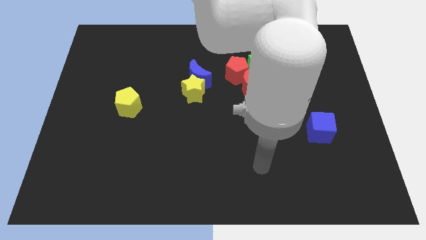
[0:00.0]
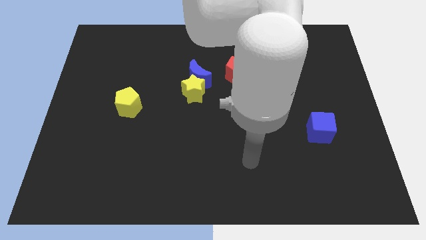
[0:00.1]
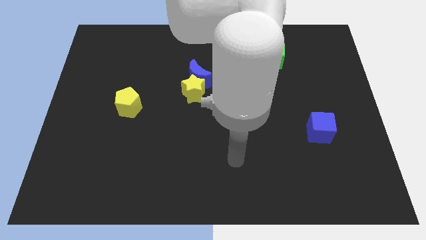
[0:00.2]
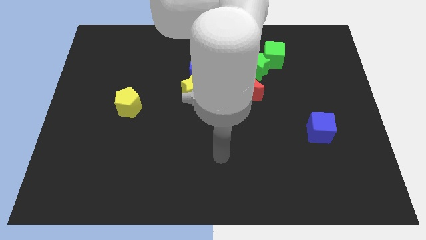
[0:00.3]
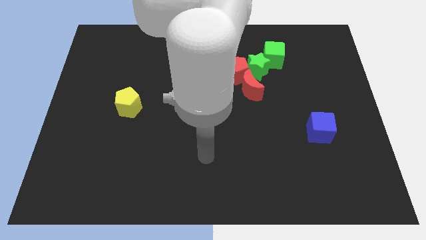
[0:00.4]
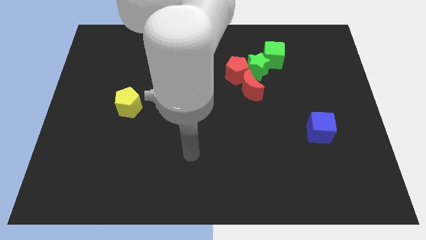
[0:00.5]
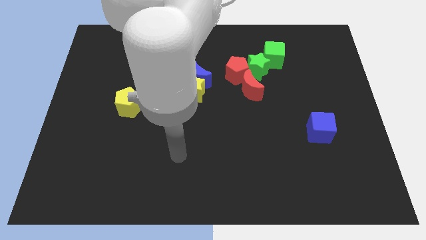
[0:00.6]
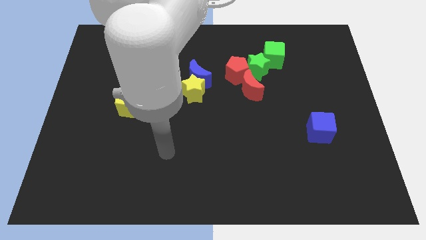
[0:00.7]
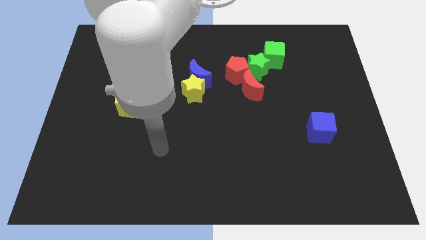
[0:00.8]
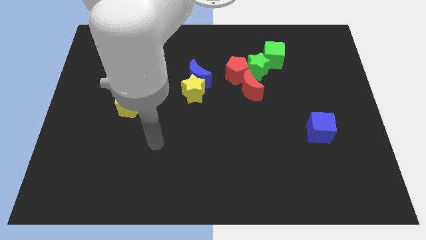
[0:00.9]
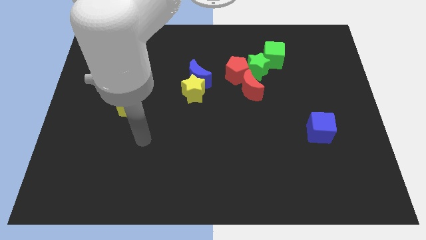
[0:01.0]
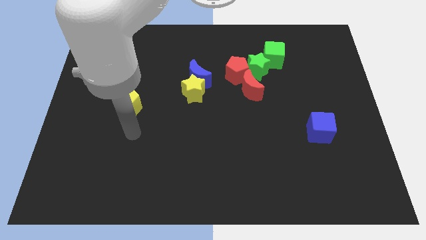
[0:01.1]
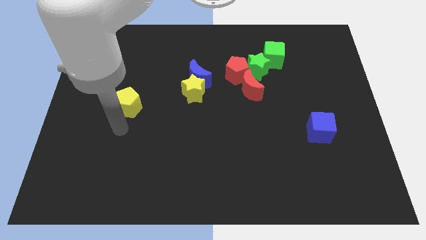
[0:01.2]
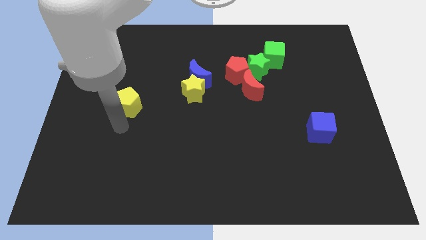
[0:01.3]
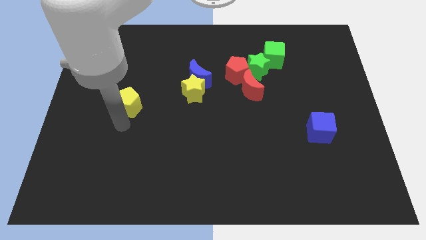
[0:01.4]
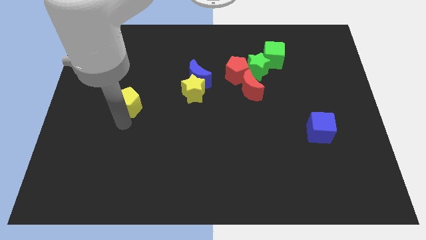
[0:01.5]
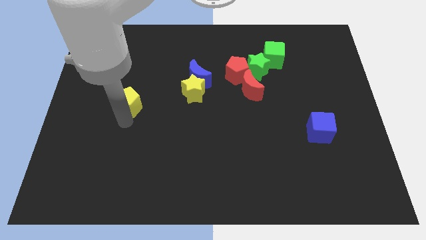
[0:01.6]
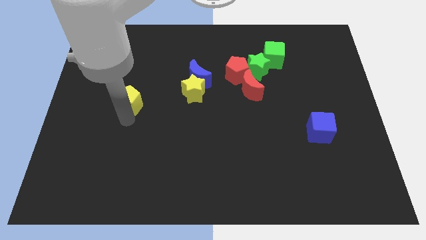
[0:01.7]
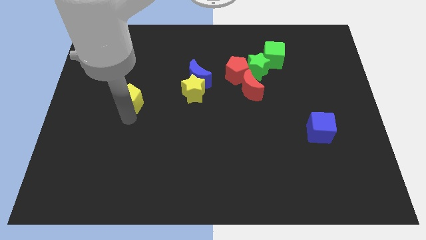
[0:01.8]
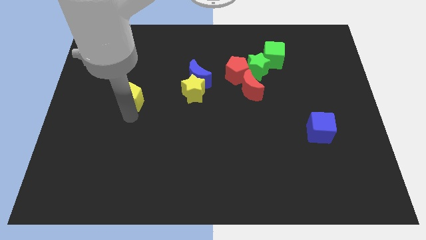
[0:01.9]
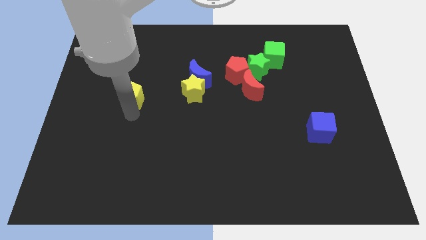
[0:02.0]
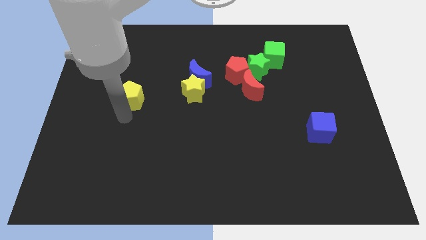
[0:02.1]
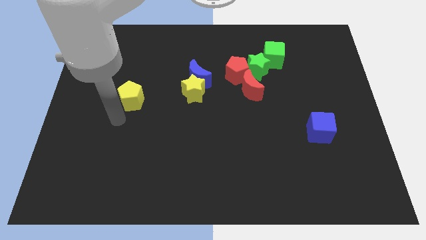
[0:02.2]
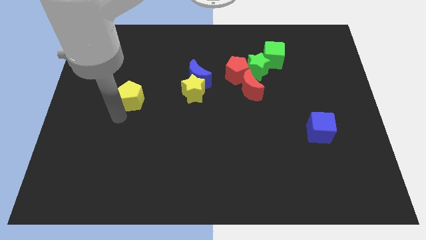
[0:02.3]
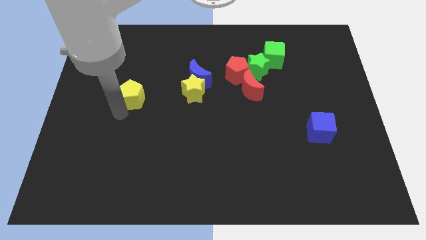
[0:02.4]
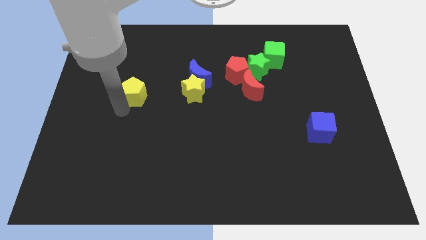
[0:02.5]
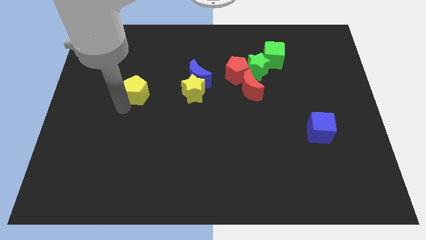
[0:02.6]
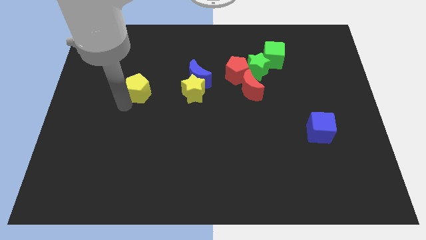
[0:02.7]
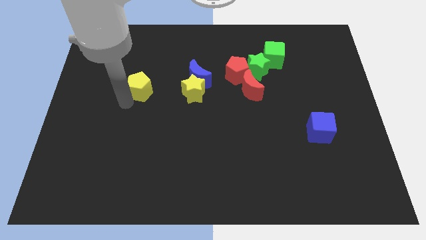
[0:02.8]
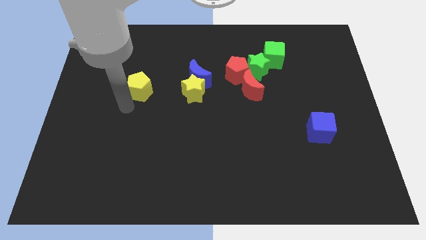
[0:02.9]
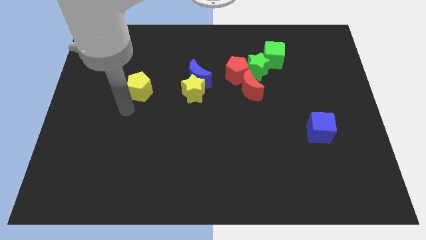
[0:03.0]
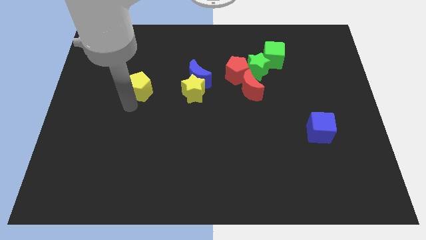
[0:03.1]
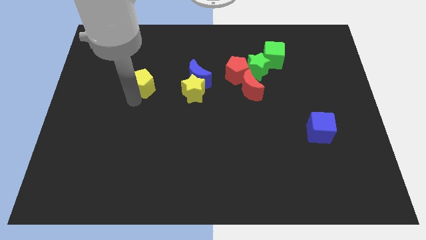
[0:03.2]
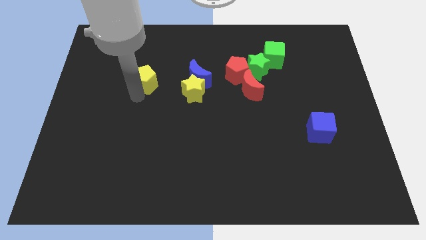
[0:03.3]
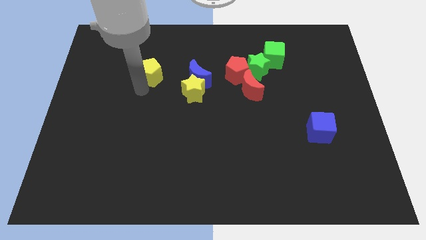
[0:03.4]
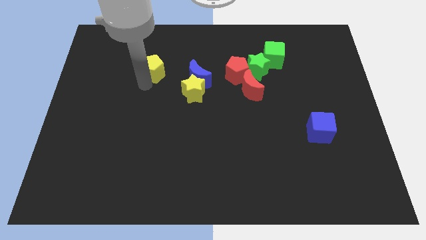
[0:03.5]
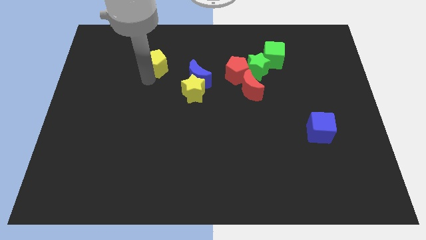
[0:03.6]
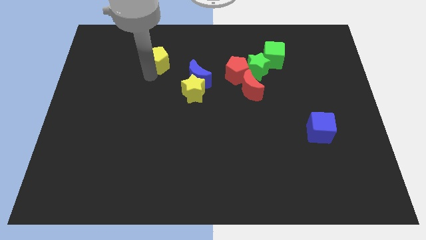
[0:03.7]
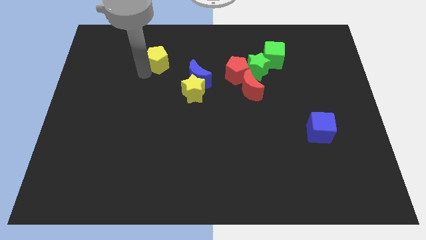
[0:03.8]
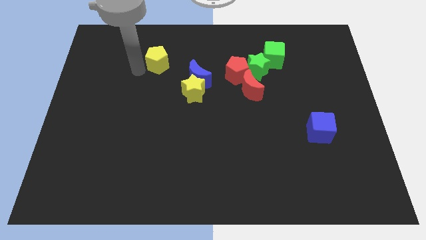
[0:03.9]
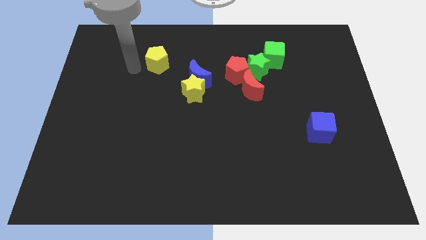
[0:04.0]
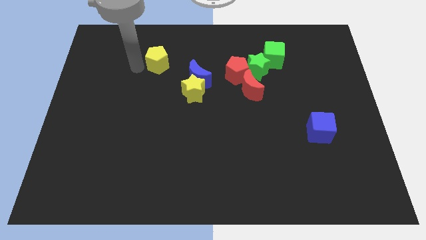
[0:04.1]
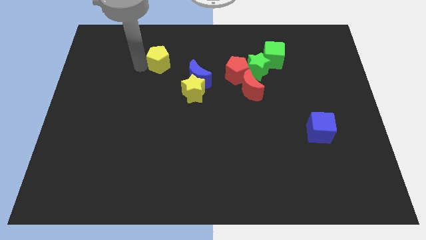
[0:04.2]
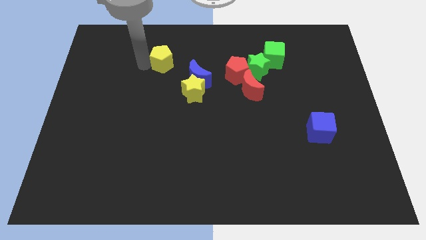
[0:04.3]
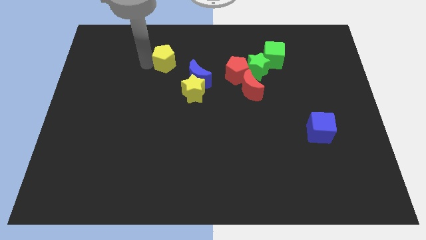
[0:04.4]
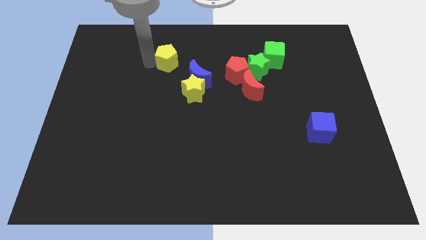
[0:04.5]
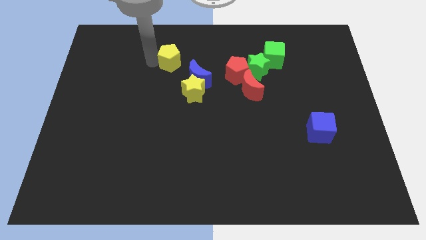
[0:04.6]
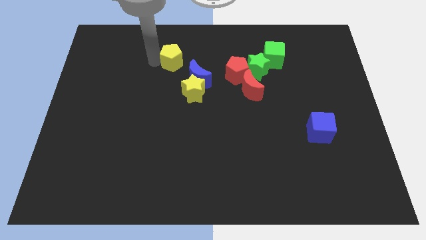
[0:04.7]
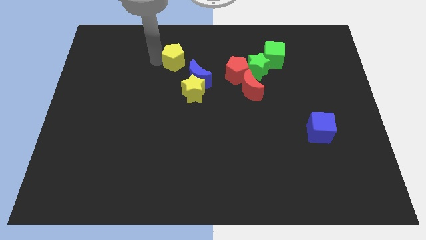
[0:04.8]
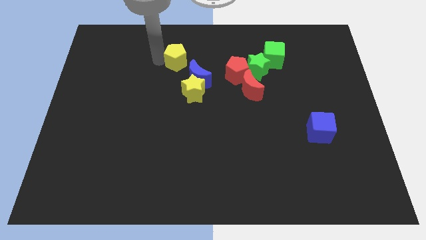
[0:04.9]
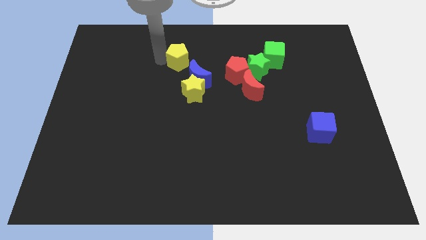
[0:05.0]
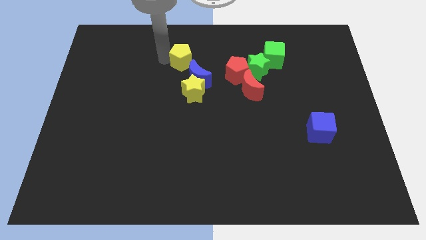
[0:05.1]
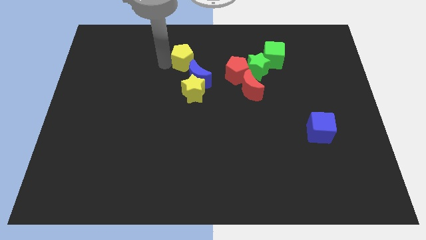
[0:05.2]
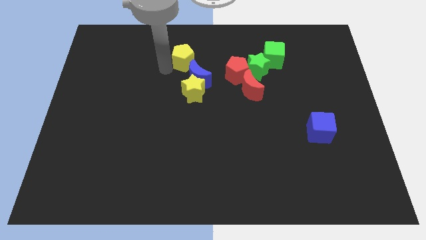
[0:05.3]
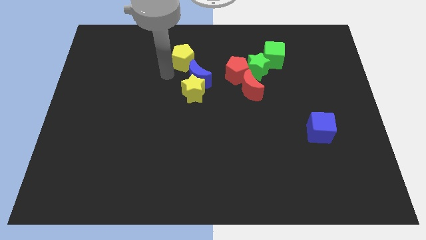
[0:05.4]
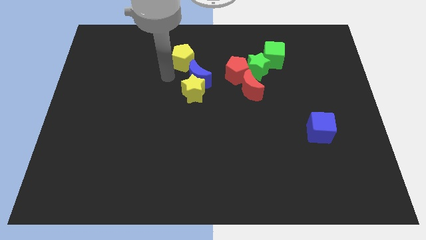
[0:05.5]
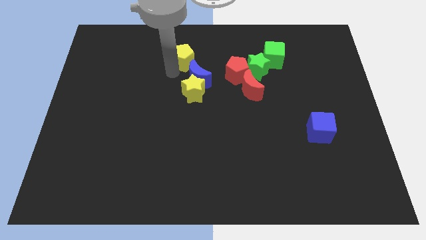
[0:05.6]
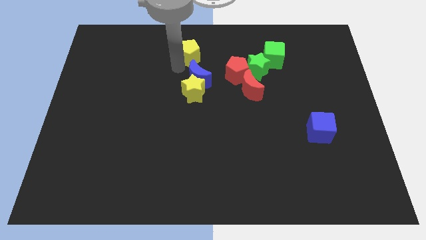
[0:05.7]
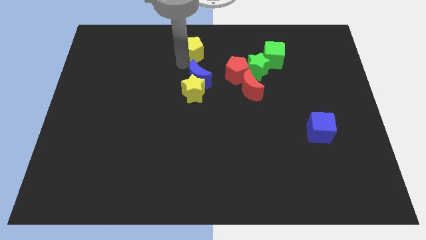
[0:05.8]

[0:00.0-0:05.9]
push the yellow pentagon to the top side
